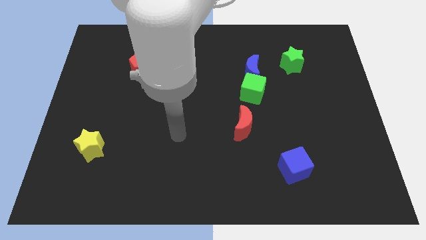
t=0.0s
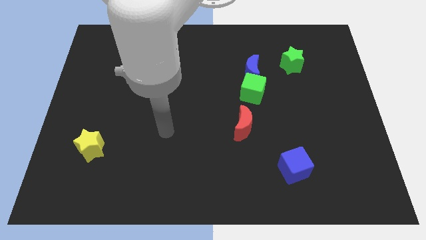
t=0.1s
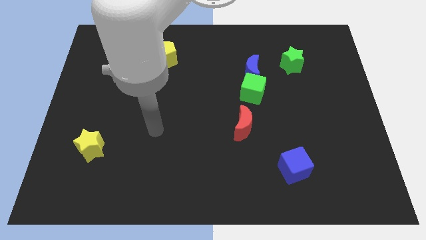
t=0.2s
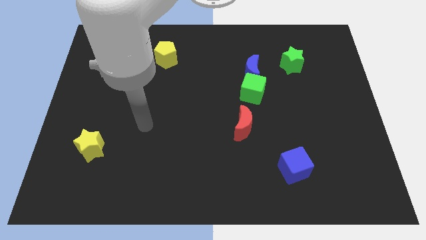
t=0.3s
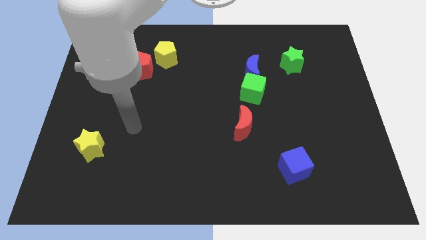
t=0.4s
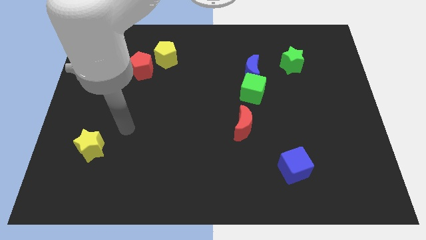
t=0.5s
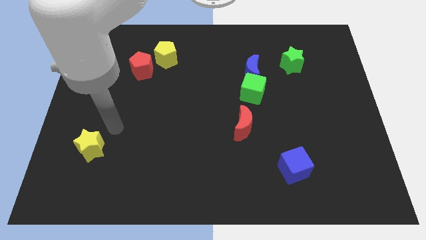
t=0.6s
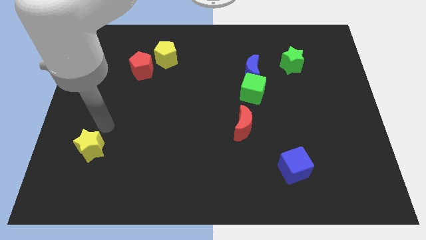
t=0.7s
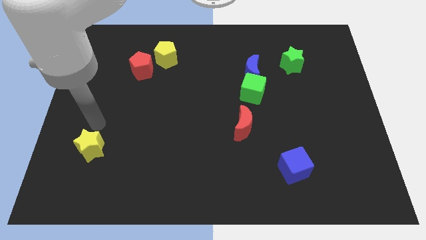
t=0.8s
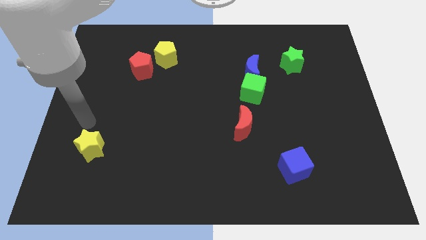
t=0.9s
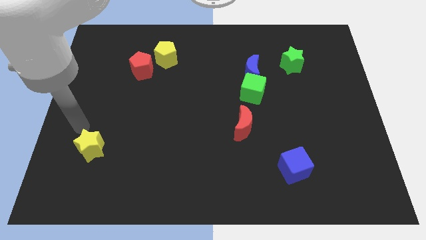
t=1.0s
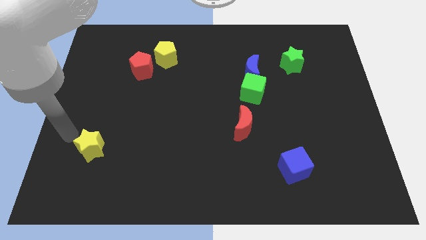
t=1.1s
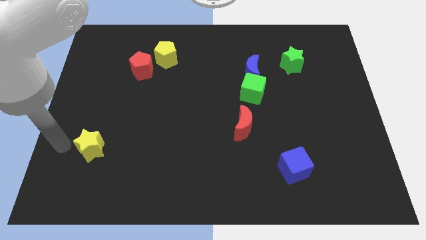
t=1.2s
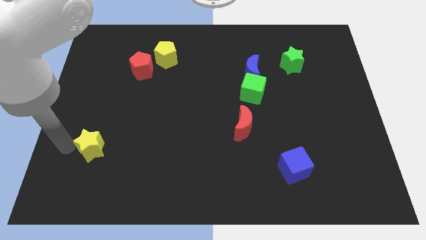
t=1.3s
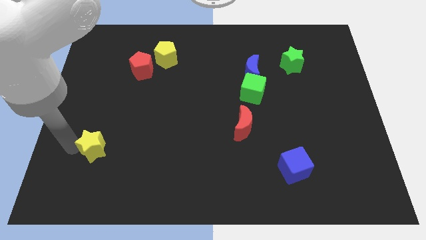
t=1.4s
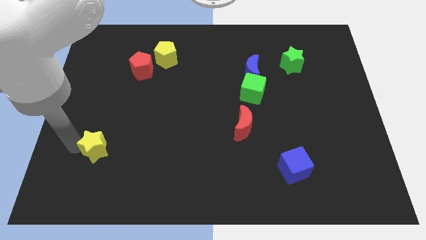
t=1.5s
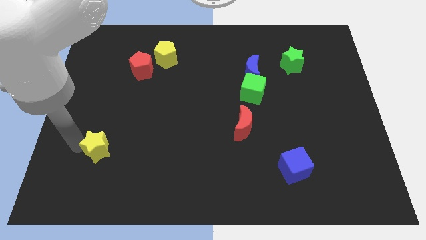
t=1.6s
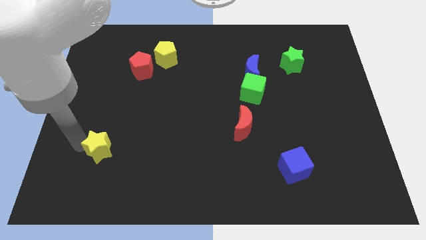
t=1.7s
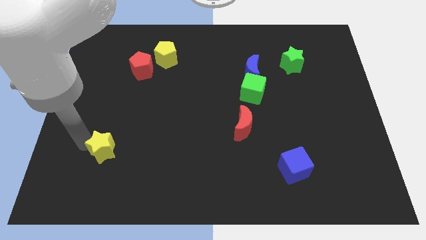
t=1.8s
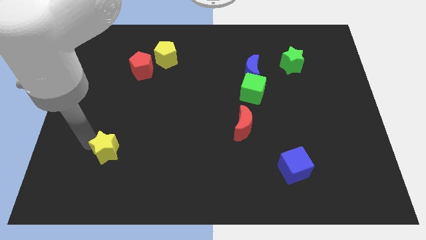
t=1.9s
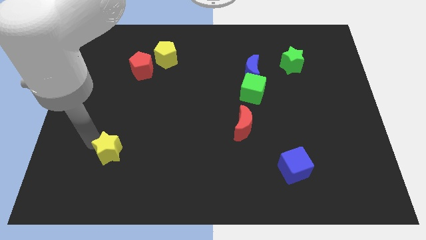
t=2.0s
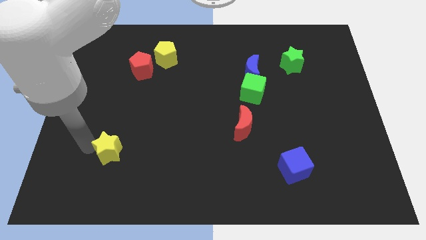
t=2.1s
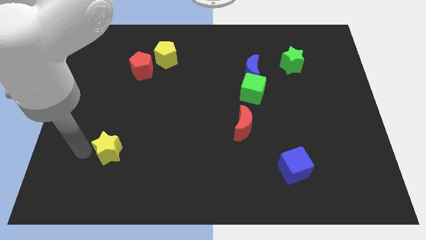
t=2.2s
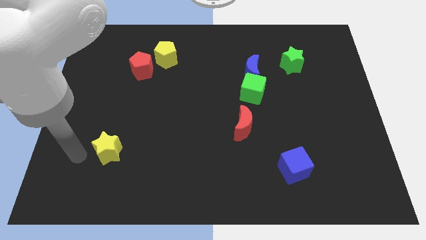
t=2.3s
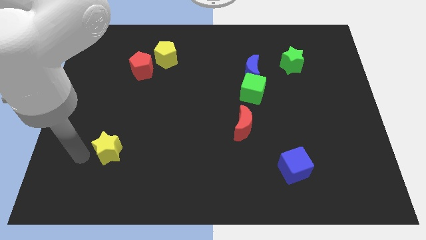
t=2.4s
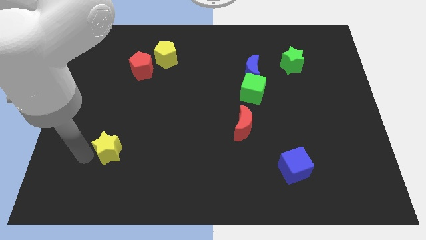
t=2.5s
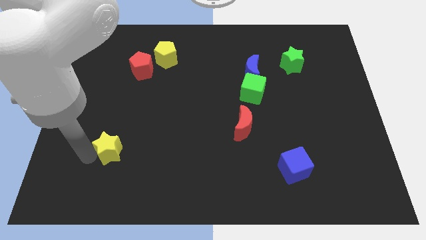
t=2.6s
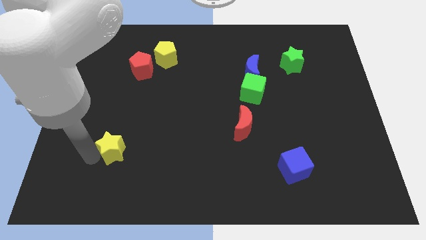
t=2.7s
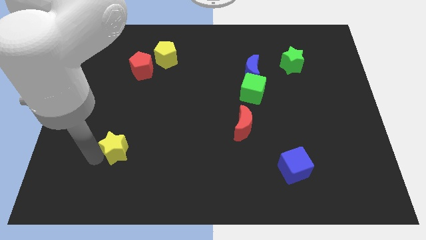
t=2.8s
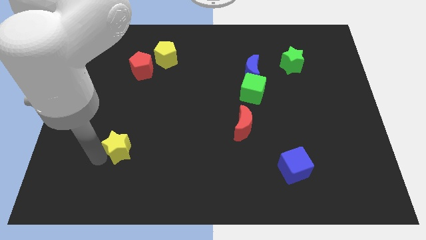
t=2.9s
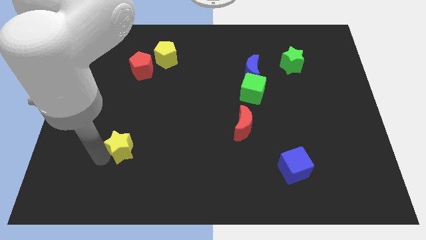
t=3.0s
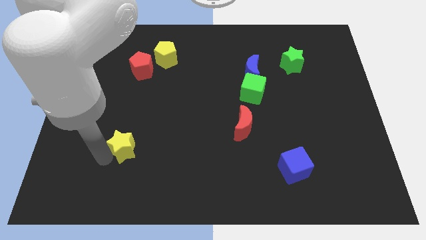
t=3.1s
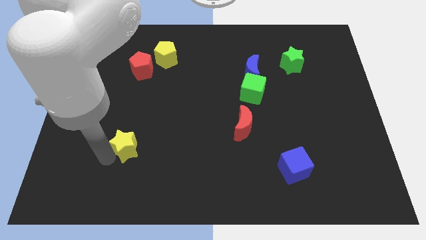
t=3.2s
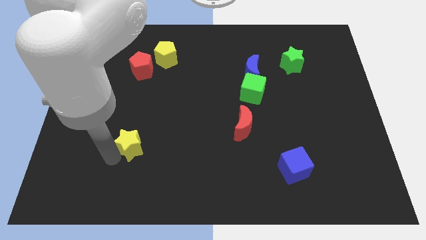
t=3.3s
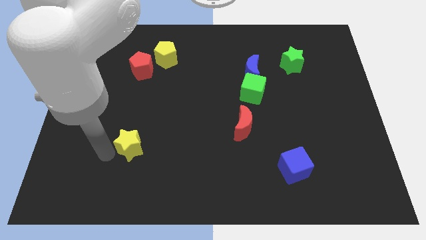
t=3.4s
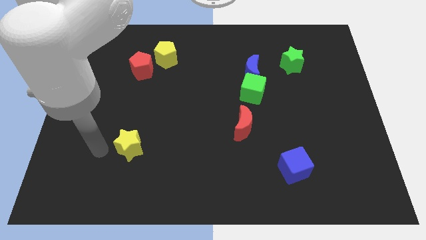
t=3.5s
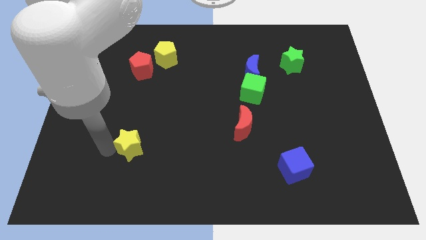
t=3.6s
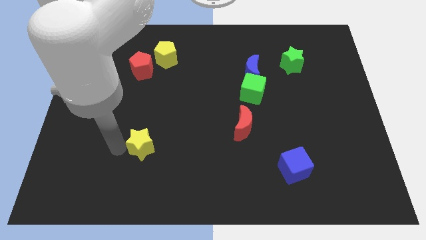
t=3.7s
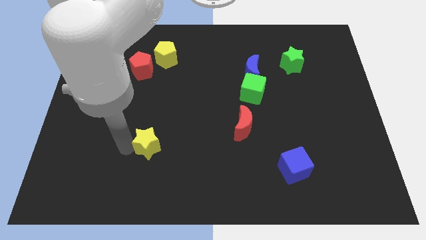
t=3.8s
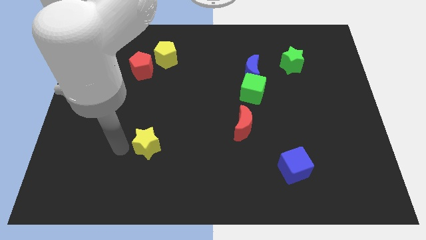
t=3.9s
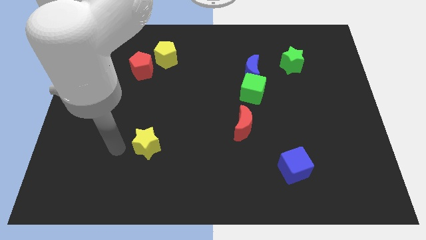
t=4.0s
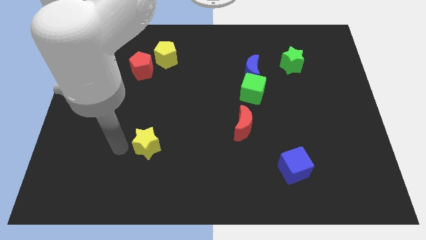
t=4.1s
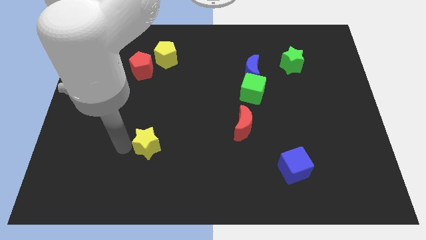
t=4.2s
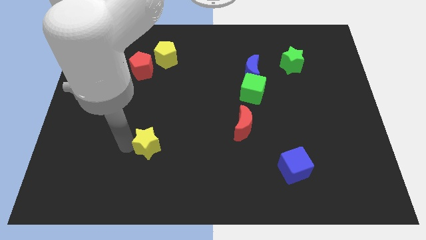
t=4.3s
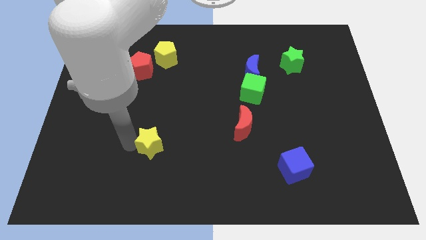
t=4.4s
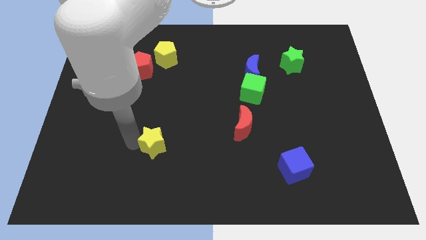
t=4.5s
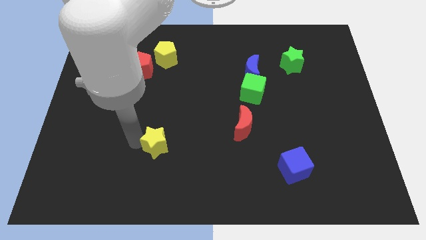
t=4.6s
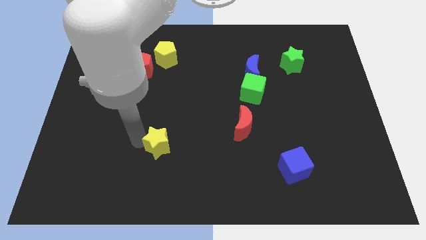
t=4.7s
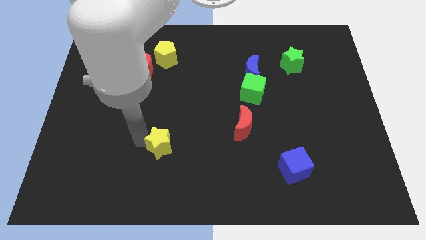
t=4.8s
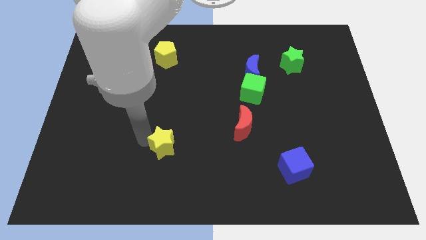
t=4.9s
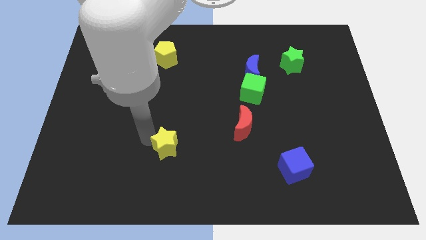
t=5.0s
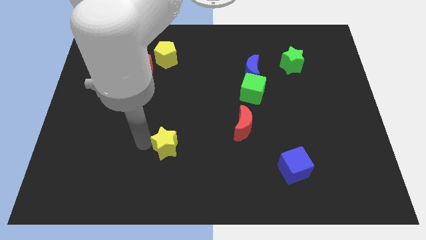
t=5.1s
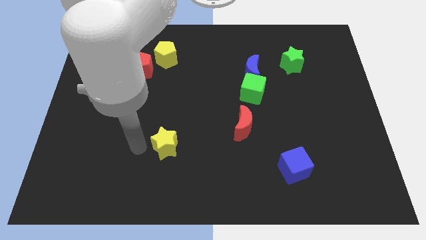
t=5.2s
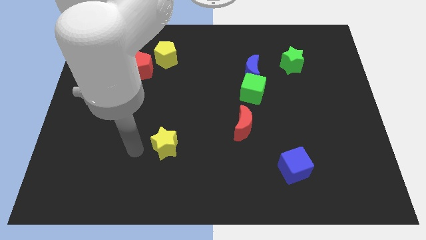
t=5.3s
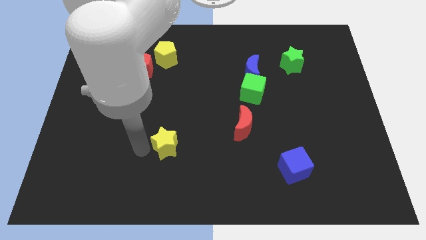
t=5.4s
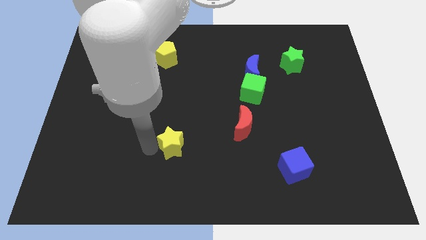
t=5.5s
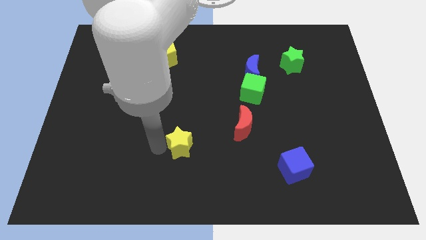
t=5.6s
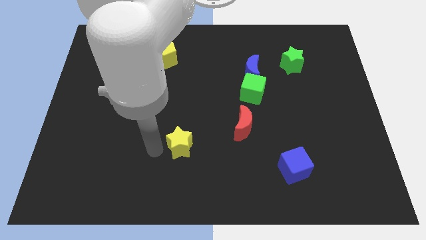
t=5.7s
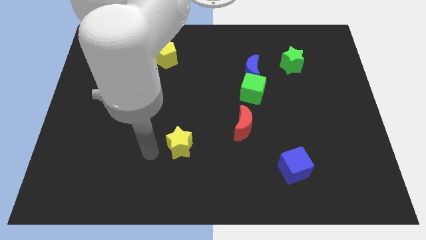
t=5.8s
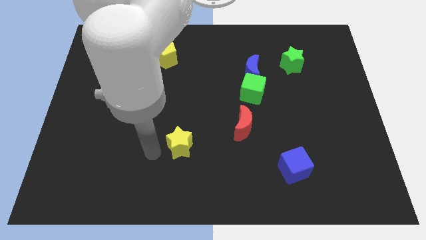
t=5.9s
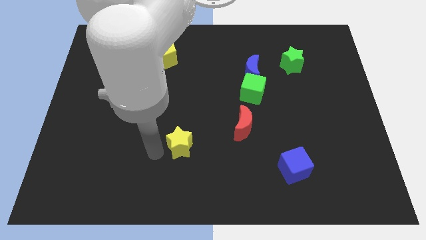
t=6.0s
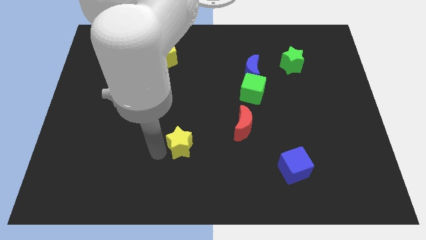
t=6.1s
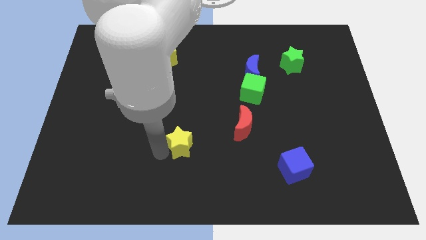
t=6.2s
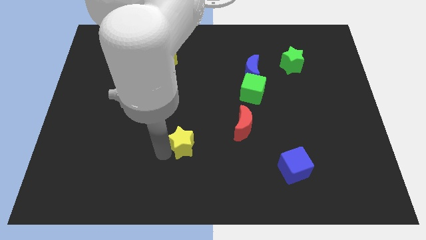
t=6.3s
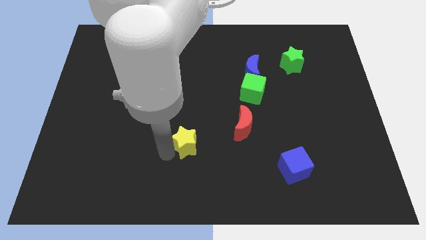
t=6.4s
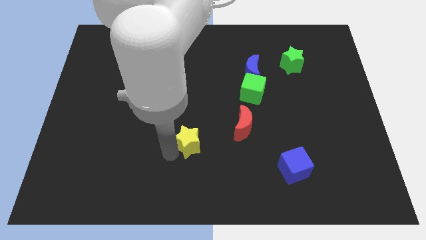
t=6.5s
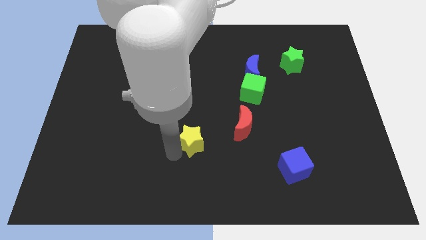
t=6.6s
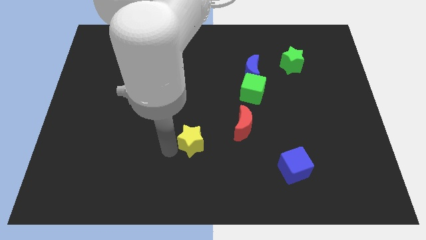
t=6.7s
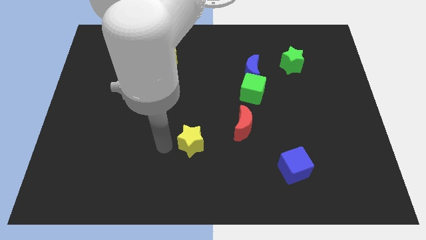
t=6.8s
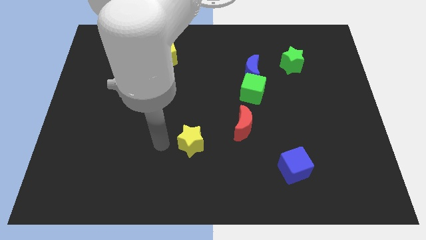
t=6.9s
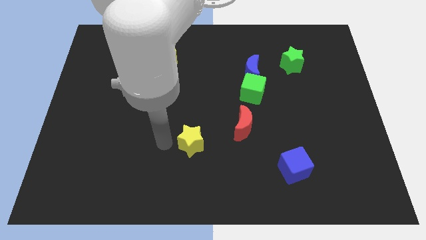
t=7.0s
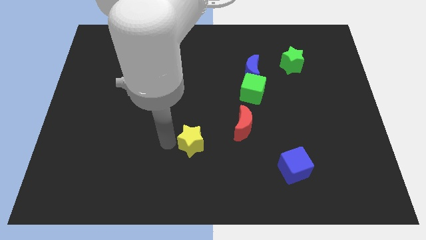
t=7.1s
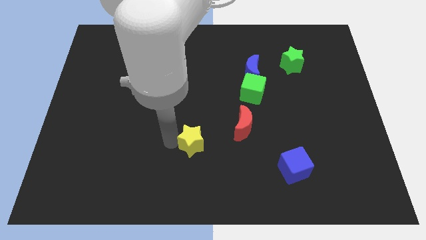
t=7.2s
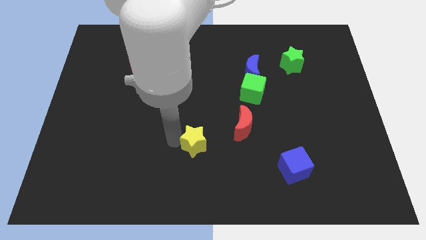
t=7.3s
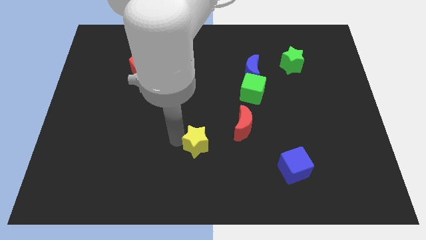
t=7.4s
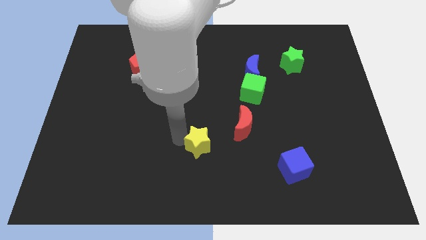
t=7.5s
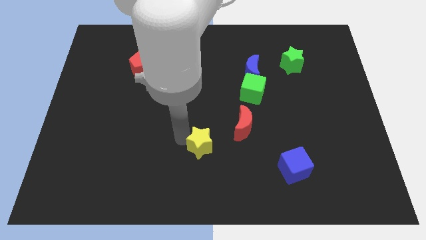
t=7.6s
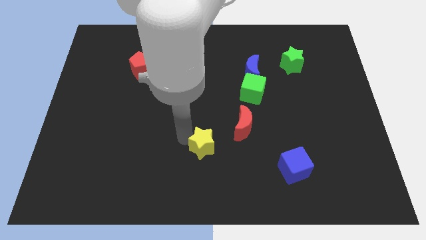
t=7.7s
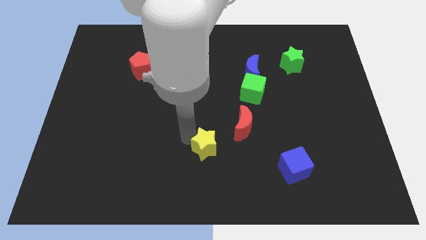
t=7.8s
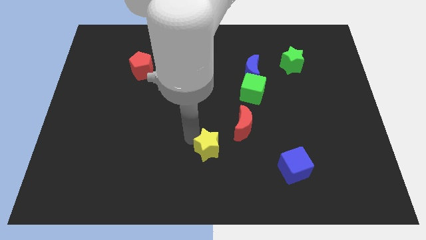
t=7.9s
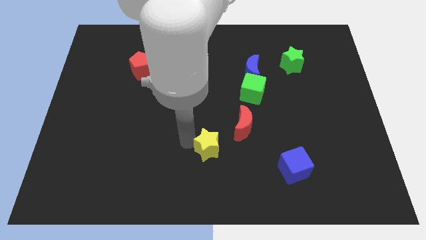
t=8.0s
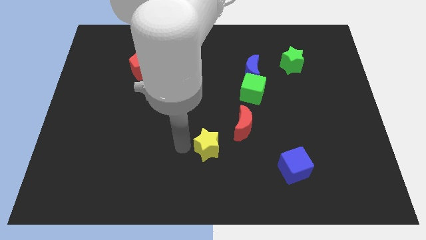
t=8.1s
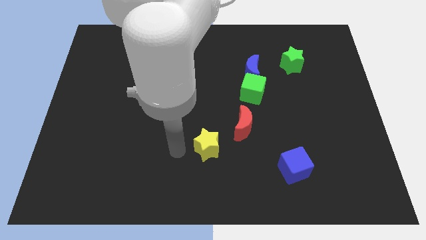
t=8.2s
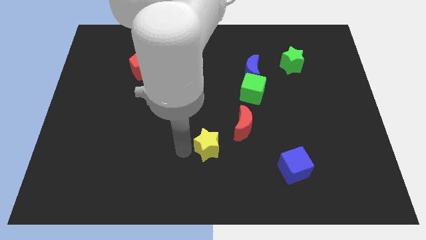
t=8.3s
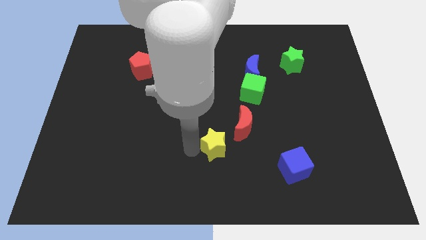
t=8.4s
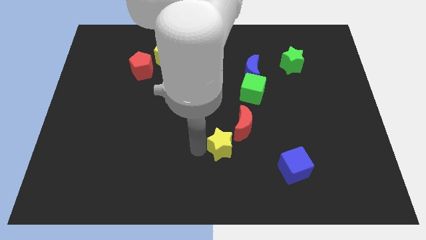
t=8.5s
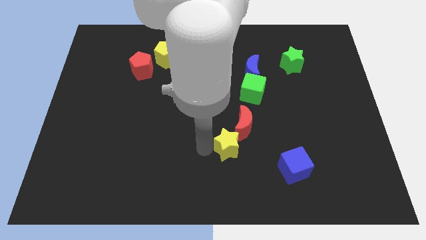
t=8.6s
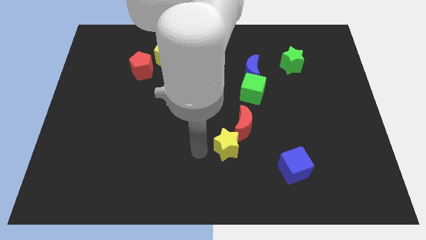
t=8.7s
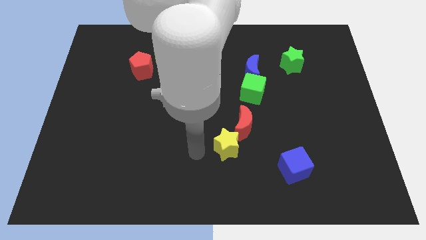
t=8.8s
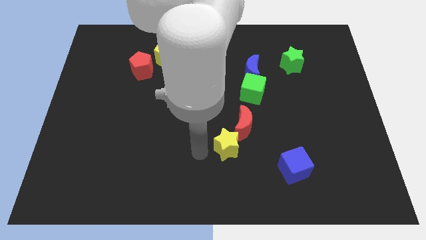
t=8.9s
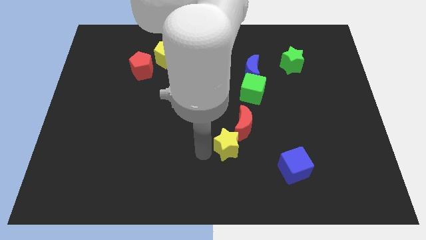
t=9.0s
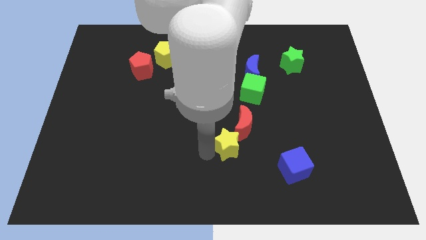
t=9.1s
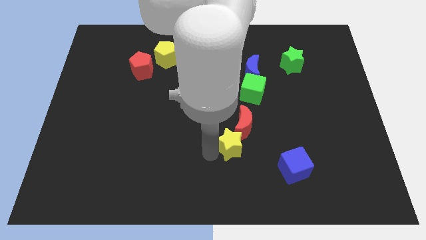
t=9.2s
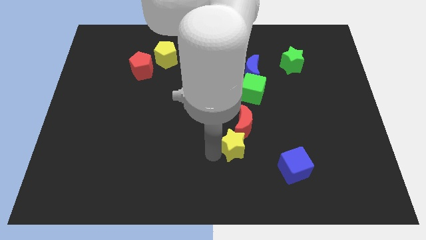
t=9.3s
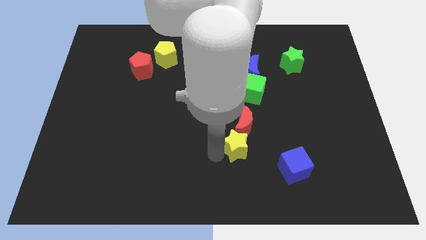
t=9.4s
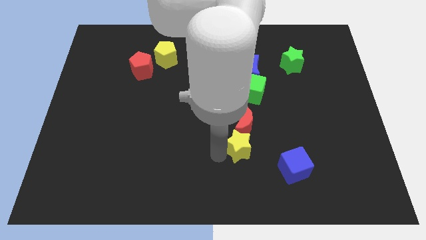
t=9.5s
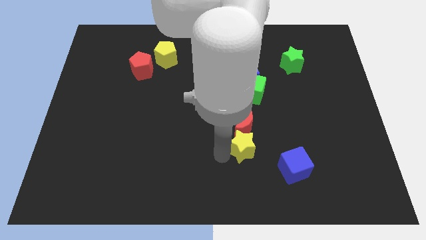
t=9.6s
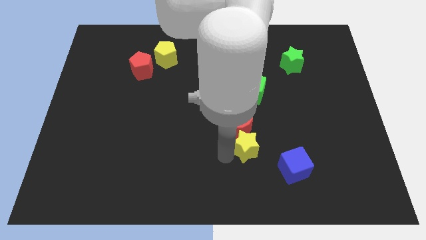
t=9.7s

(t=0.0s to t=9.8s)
put the yellow star diagonally up and to the left of the blue cube
